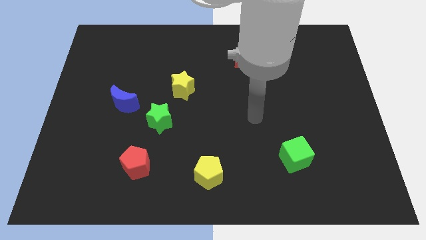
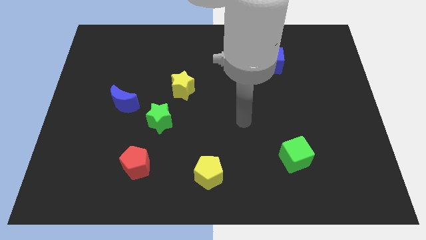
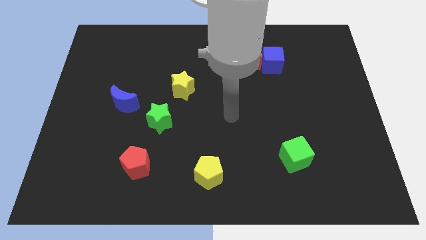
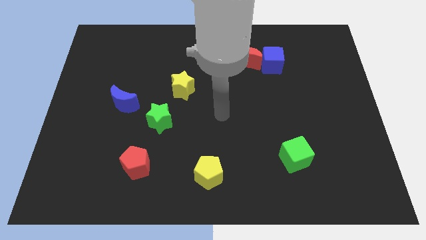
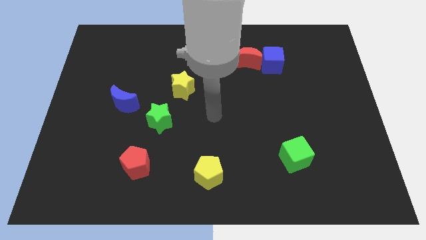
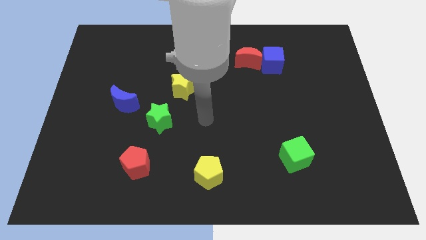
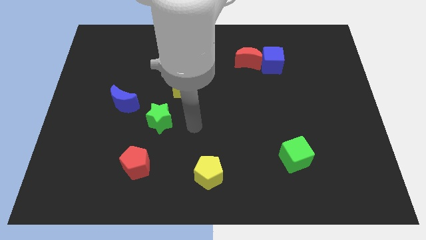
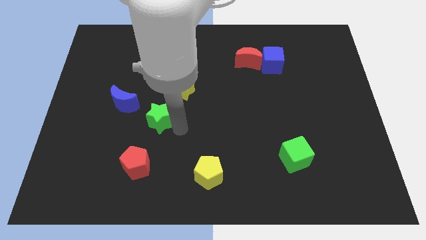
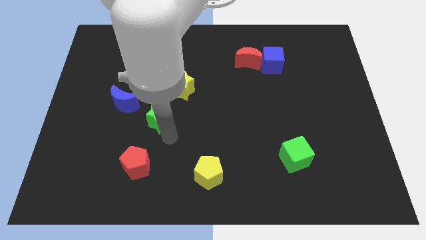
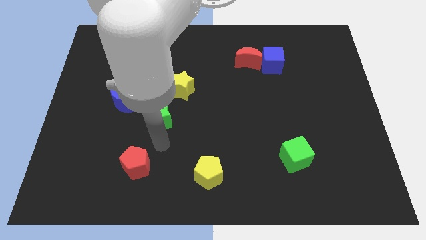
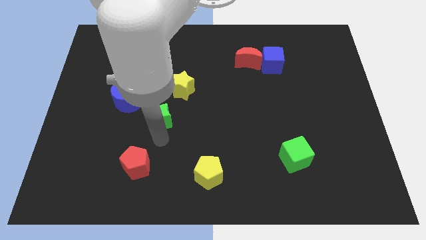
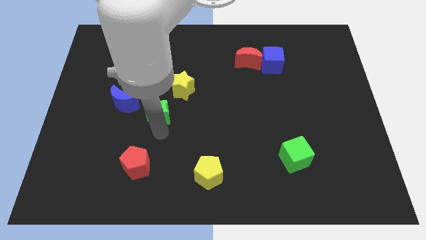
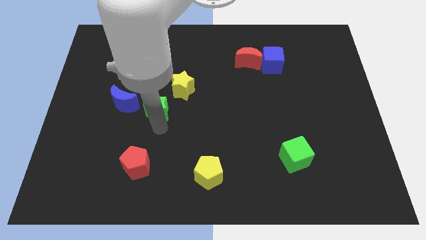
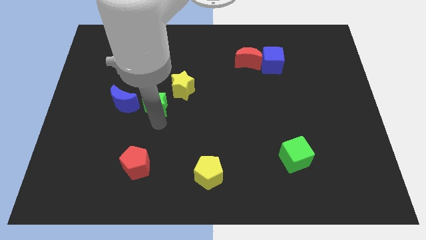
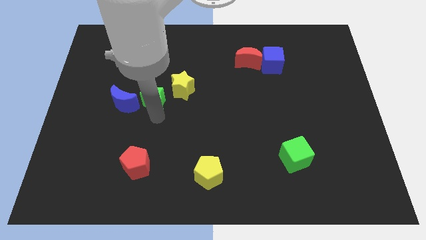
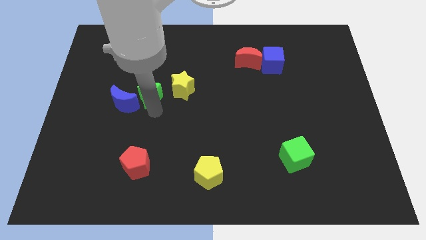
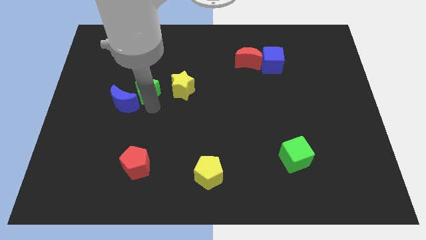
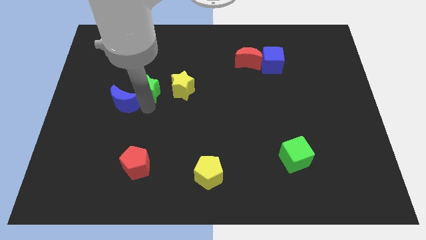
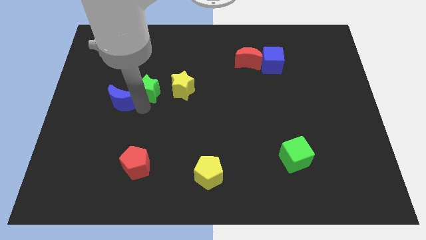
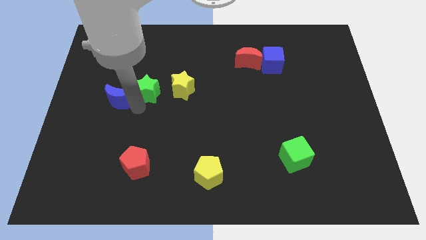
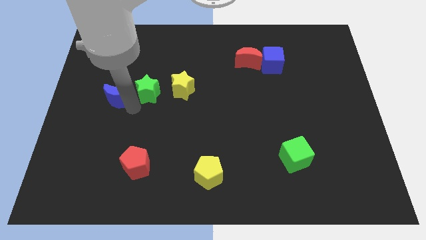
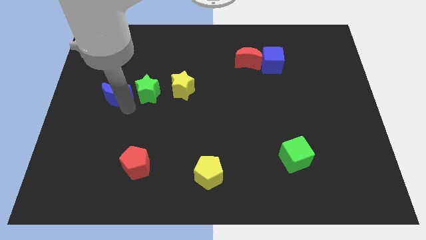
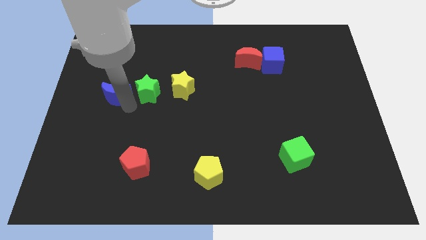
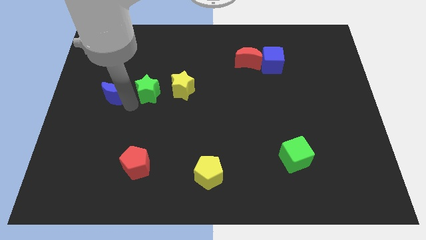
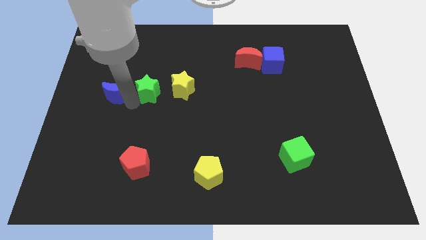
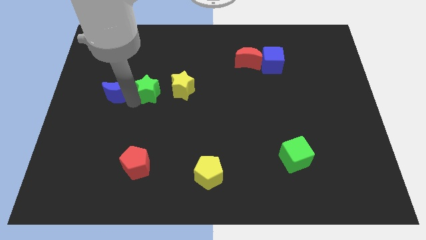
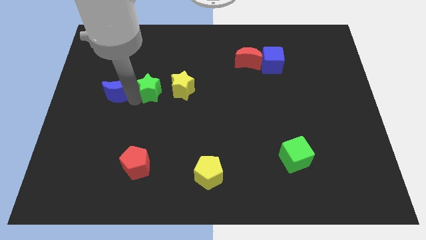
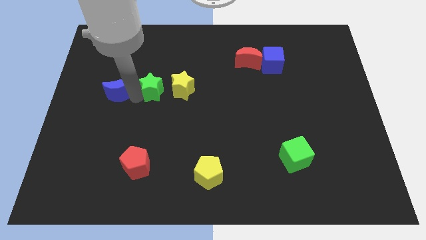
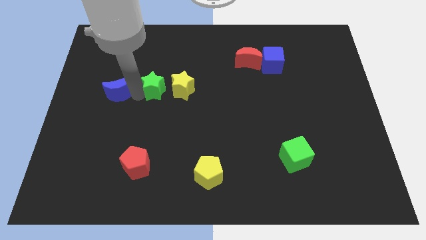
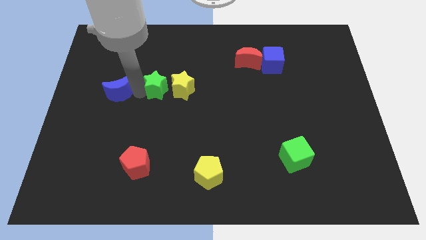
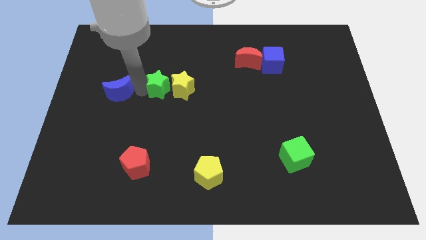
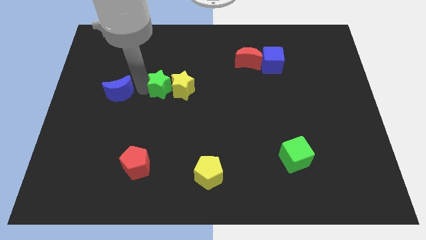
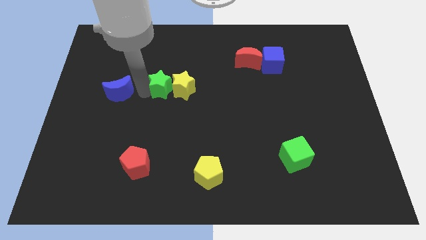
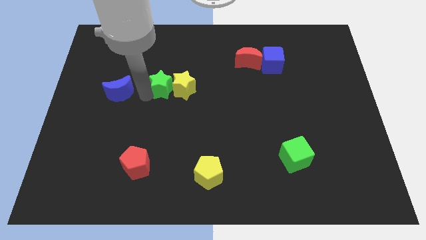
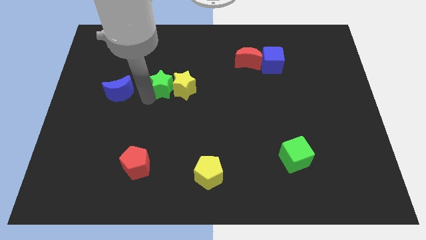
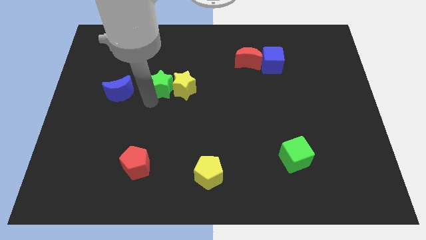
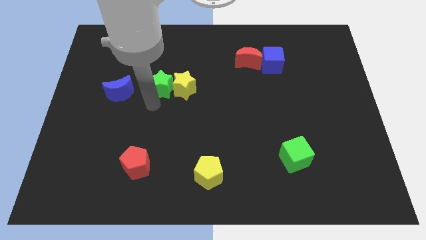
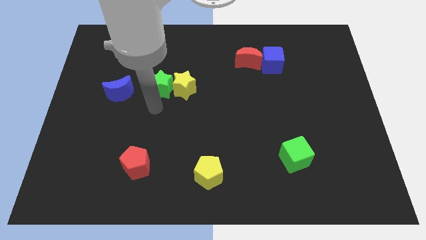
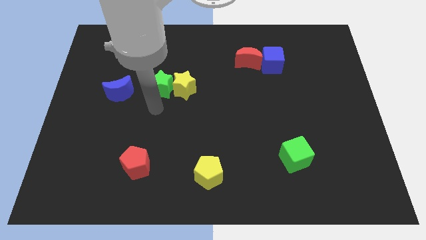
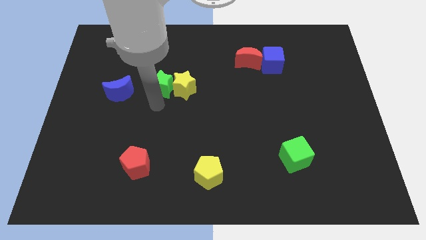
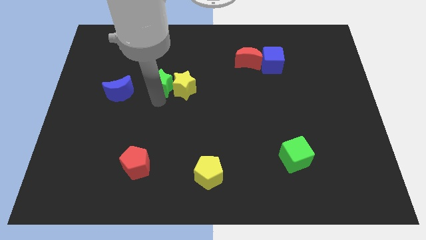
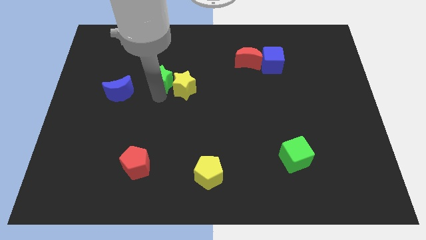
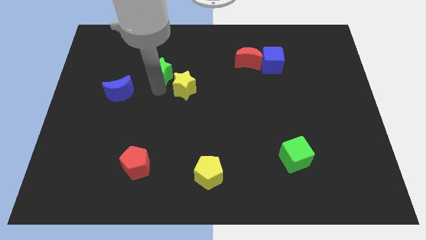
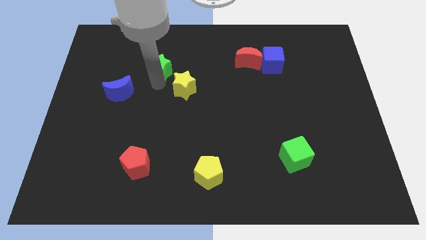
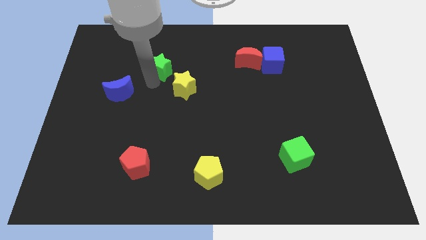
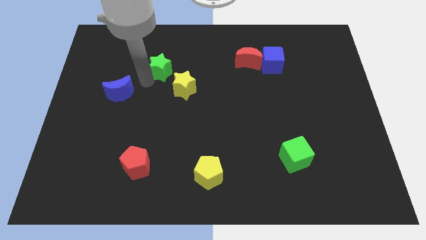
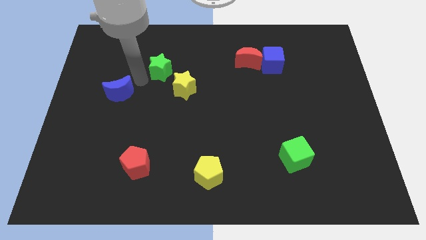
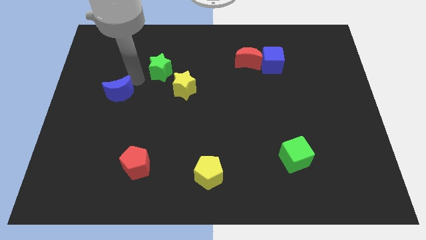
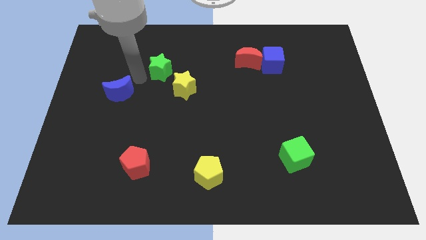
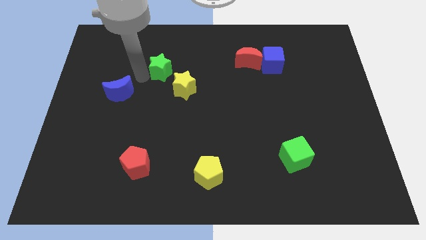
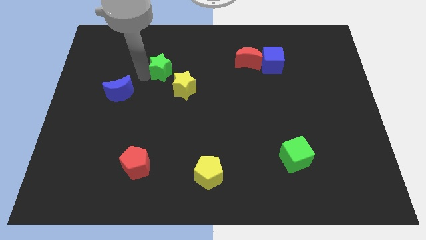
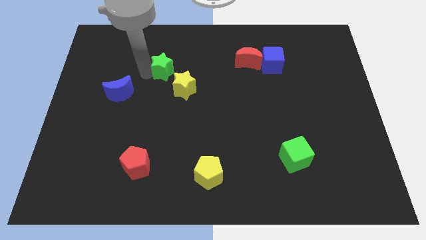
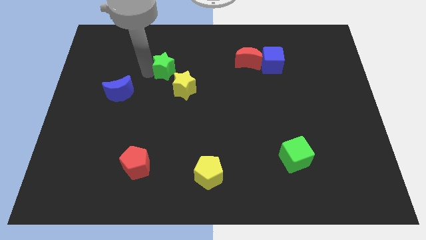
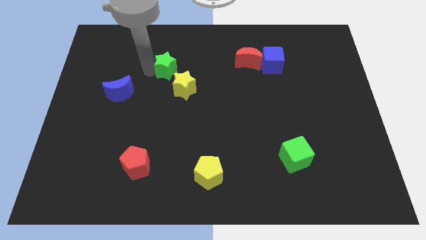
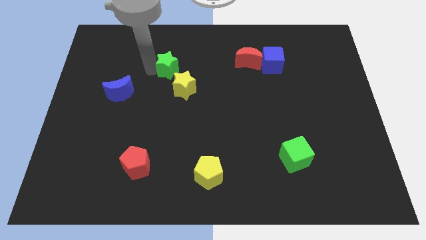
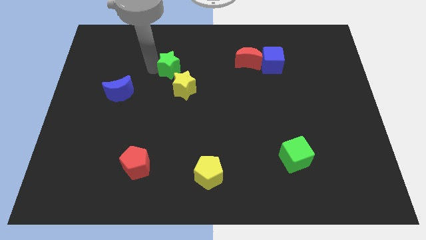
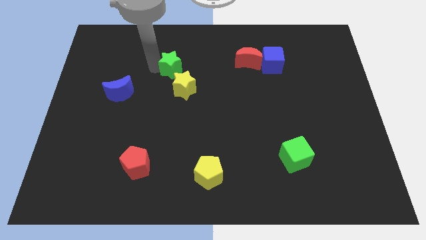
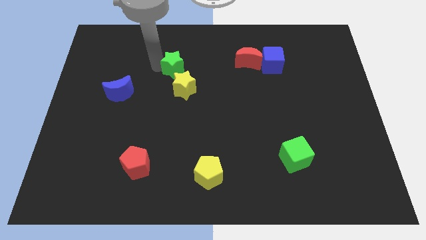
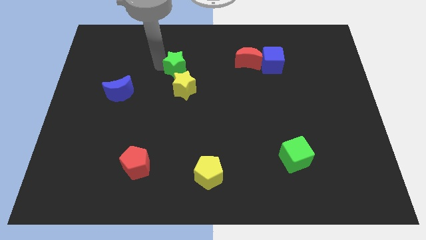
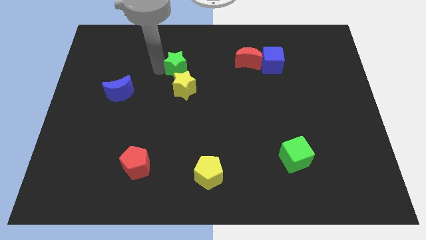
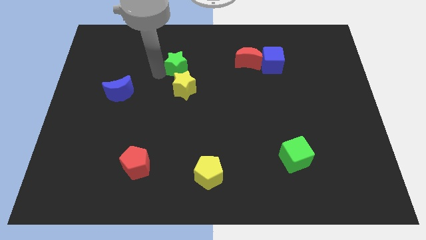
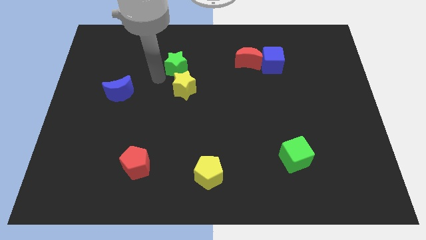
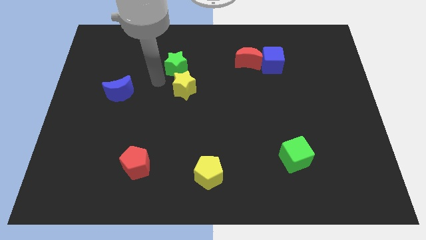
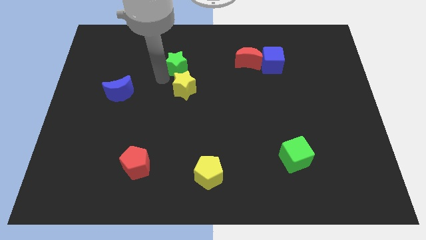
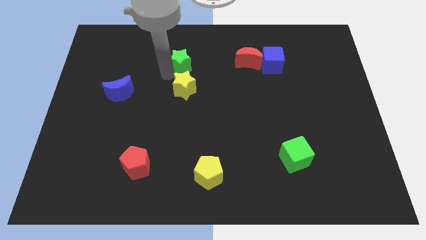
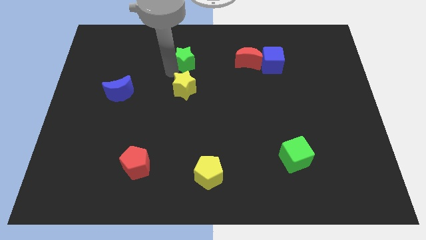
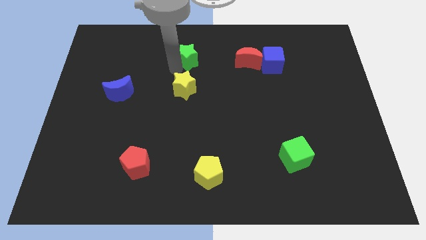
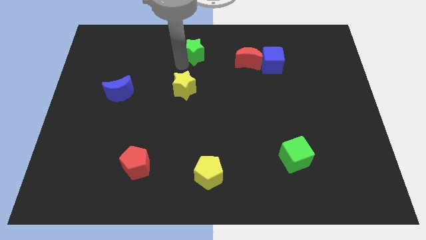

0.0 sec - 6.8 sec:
put the green star to the top

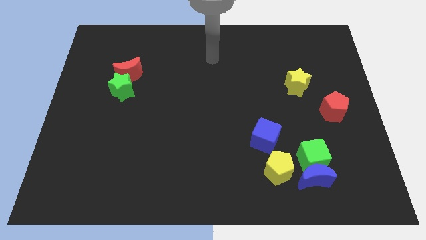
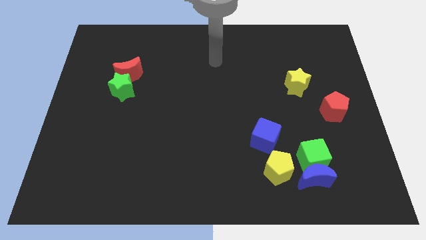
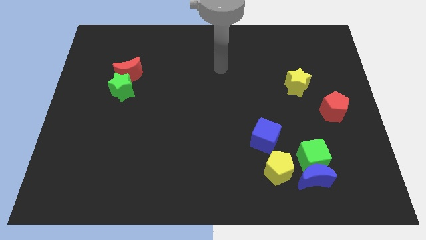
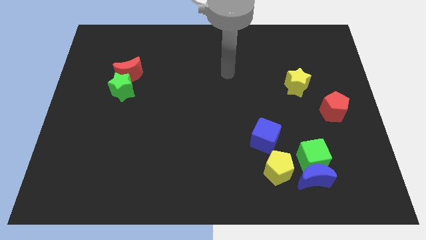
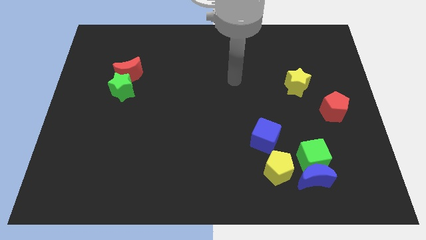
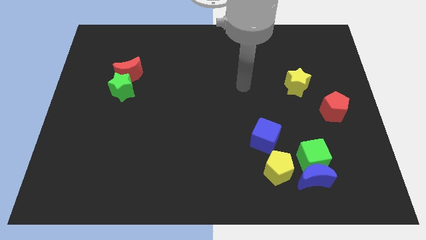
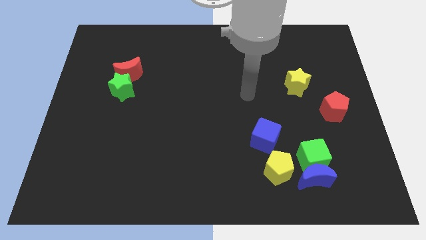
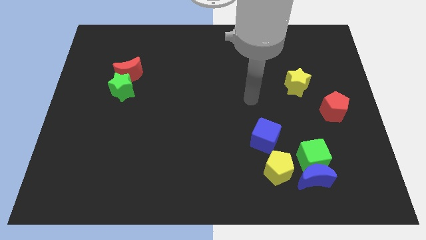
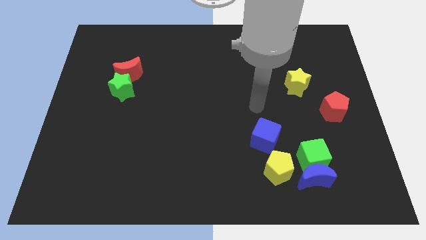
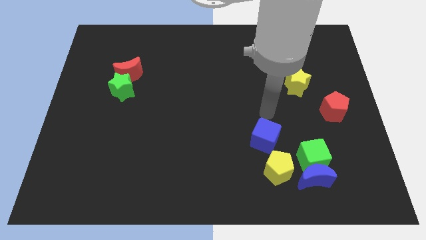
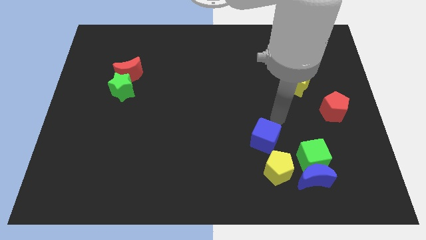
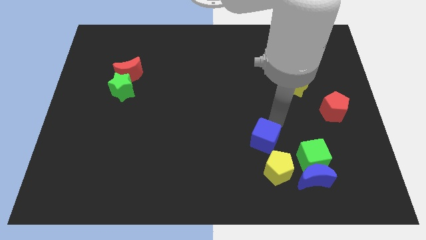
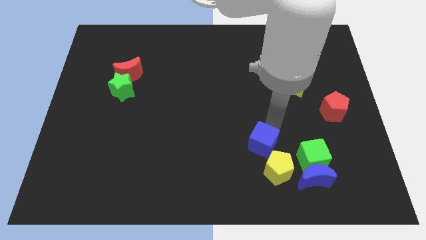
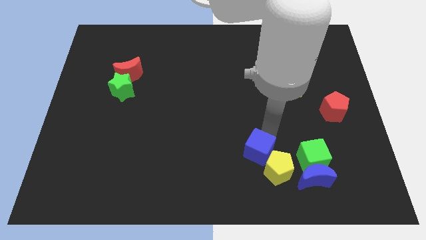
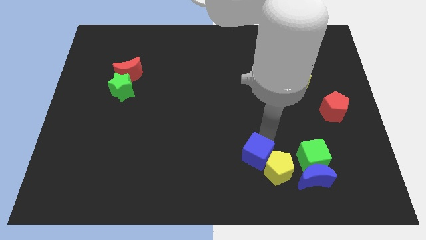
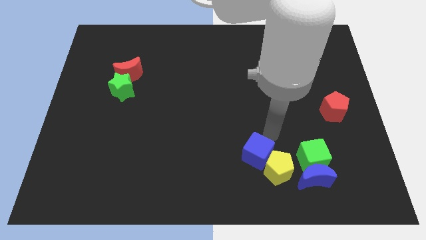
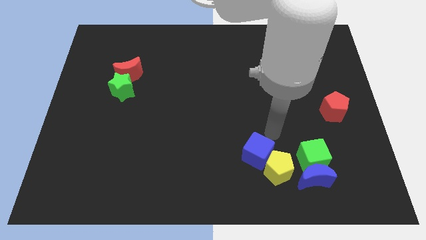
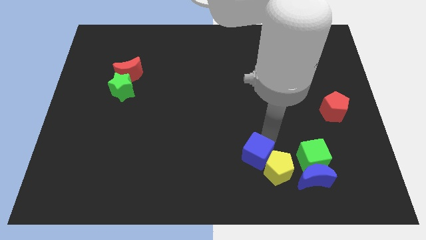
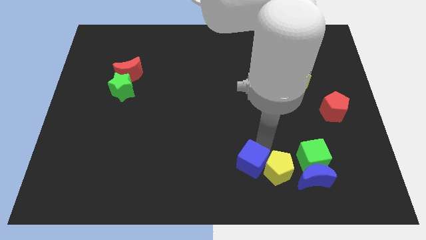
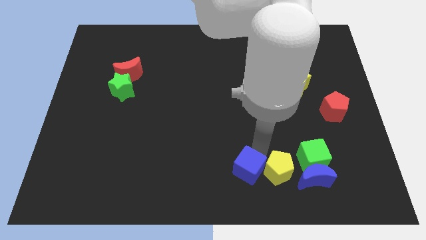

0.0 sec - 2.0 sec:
push the blue cube to the bottom
